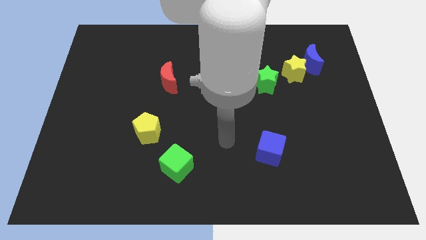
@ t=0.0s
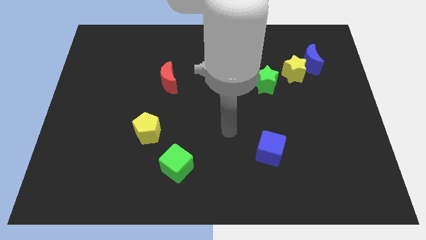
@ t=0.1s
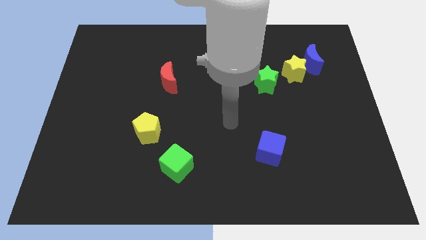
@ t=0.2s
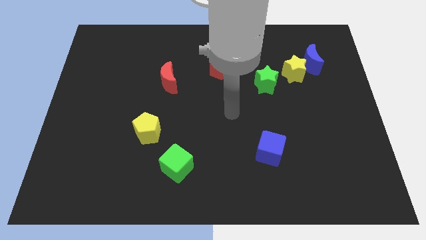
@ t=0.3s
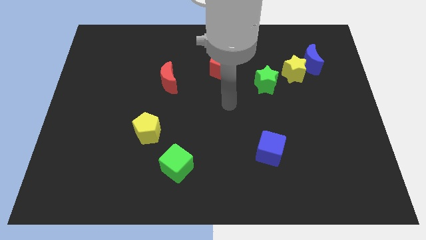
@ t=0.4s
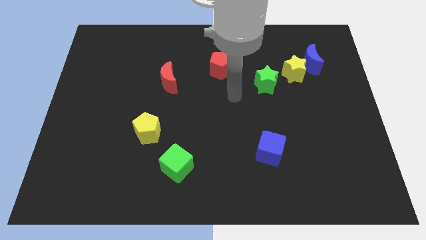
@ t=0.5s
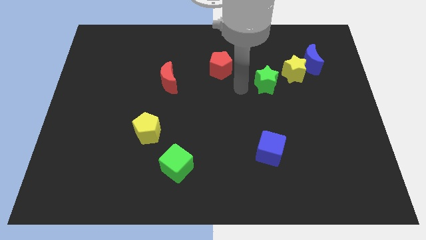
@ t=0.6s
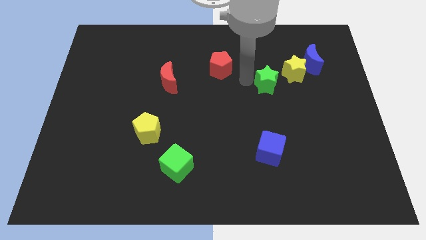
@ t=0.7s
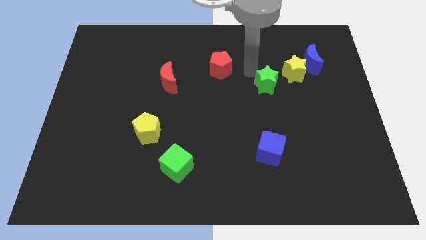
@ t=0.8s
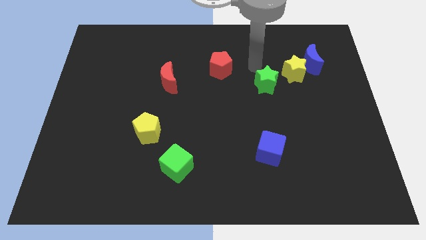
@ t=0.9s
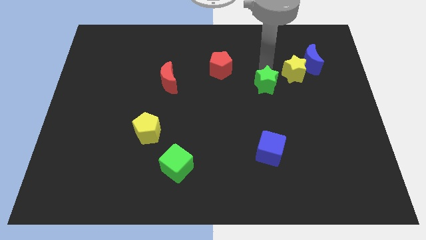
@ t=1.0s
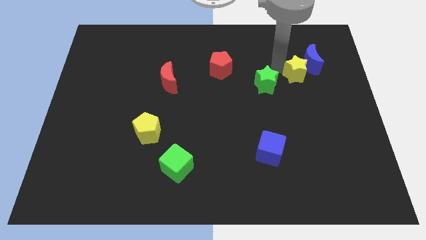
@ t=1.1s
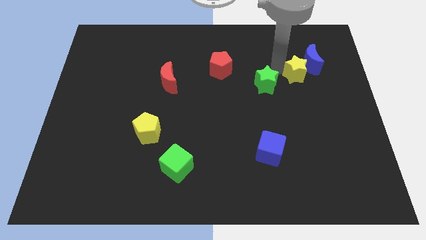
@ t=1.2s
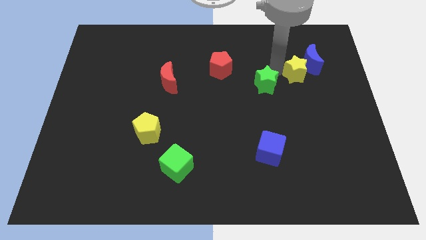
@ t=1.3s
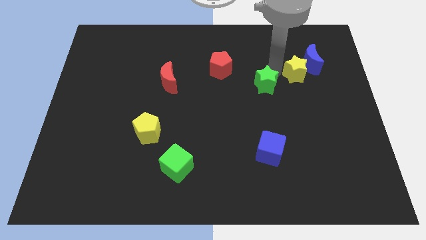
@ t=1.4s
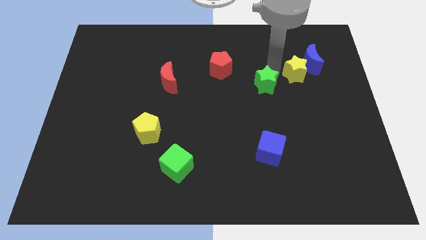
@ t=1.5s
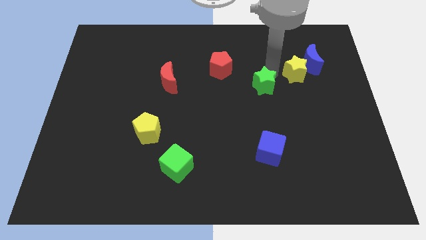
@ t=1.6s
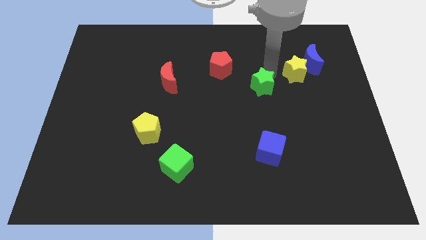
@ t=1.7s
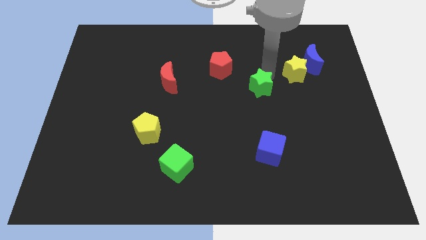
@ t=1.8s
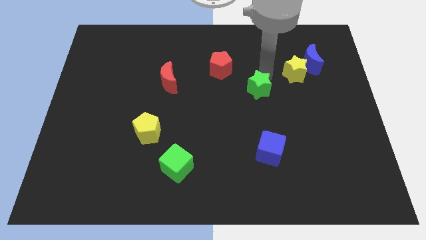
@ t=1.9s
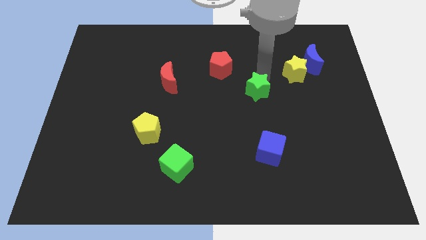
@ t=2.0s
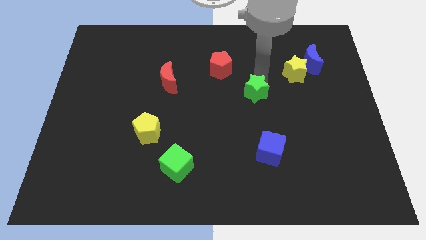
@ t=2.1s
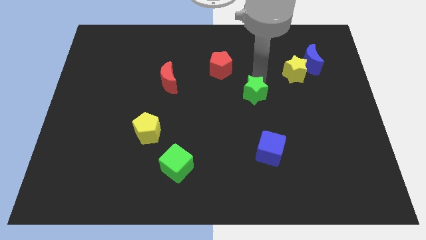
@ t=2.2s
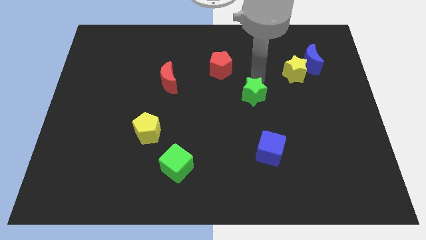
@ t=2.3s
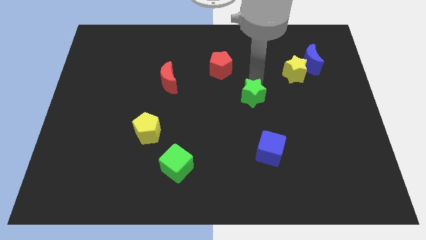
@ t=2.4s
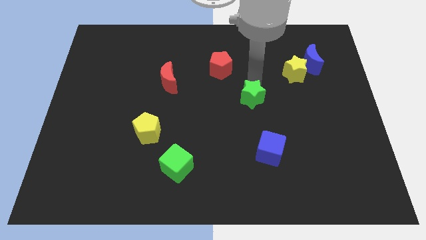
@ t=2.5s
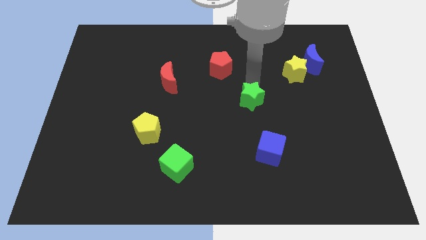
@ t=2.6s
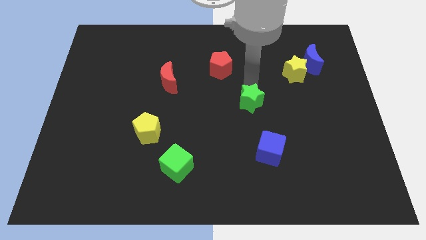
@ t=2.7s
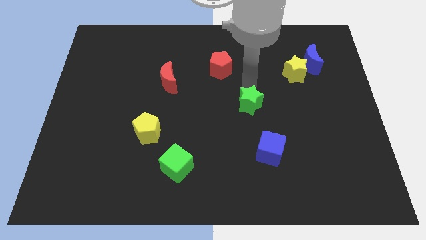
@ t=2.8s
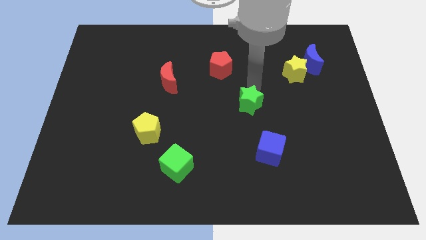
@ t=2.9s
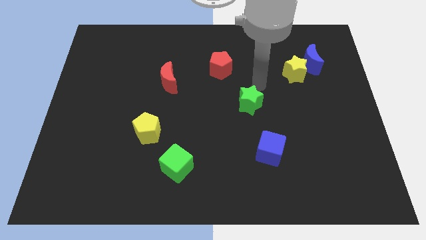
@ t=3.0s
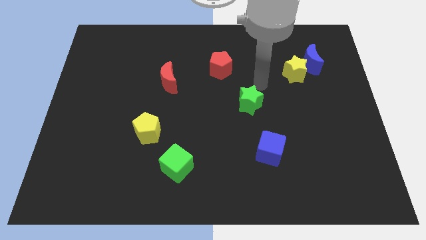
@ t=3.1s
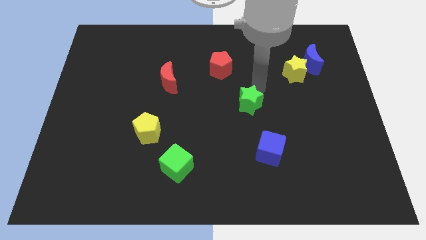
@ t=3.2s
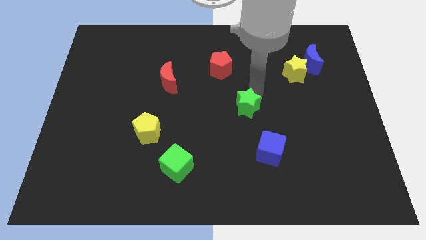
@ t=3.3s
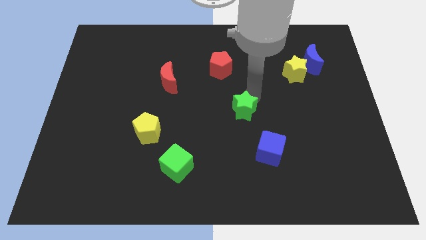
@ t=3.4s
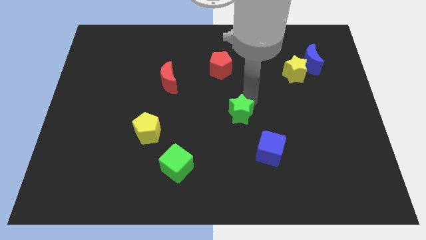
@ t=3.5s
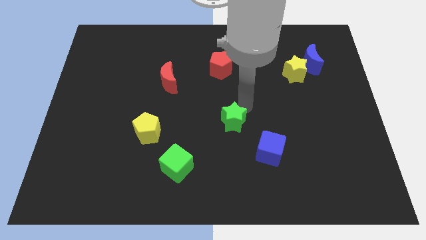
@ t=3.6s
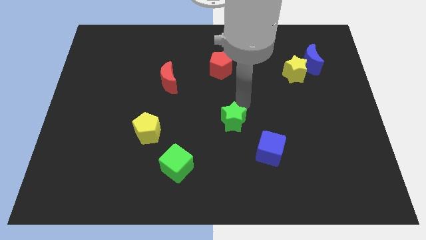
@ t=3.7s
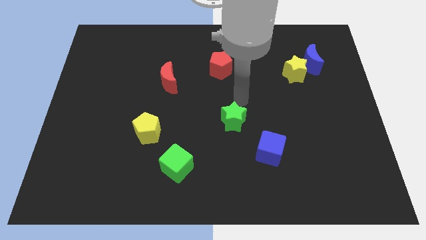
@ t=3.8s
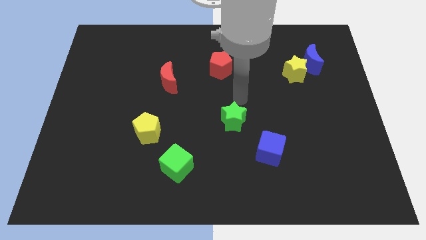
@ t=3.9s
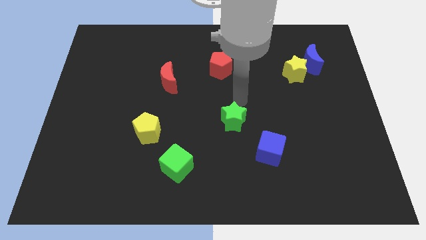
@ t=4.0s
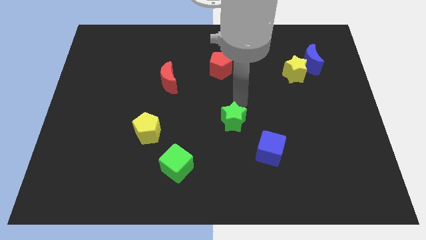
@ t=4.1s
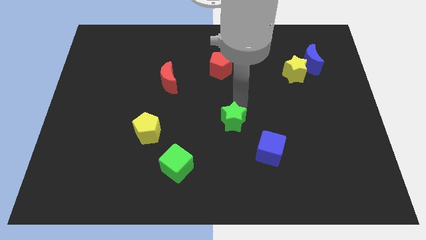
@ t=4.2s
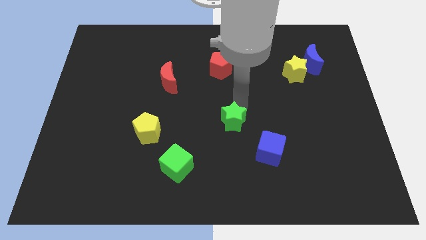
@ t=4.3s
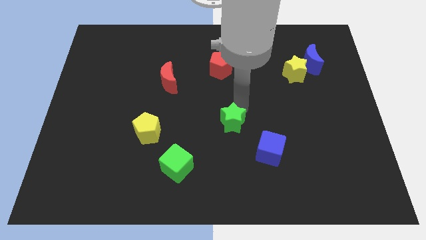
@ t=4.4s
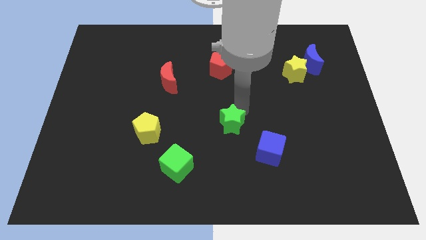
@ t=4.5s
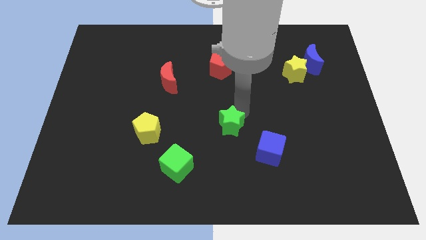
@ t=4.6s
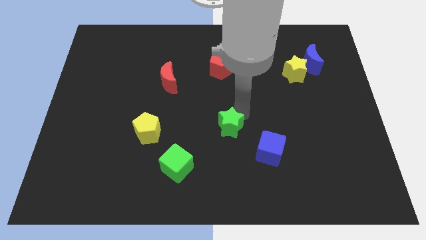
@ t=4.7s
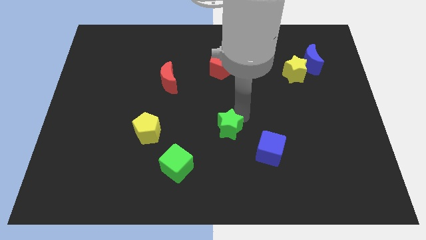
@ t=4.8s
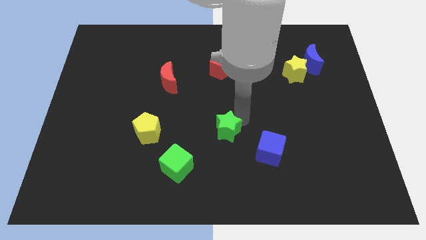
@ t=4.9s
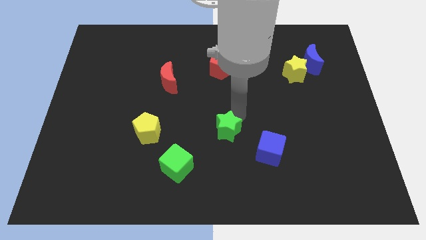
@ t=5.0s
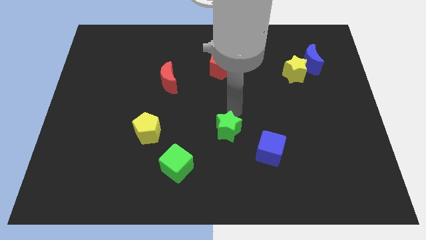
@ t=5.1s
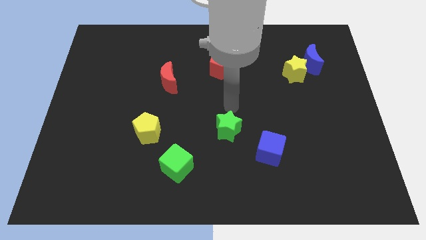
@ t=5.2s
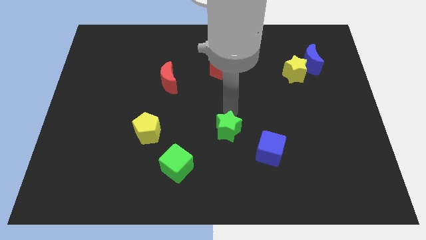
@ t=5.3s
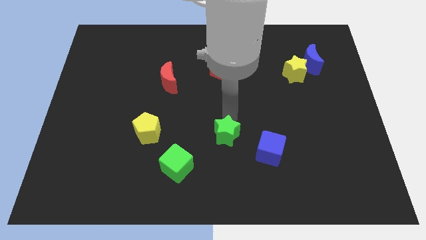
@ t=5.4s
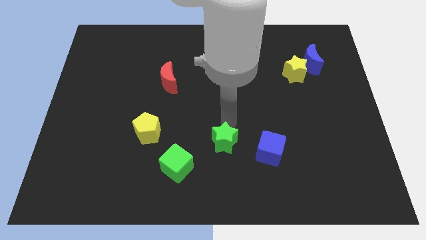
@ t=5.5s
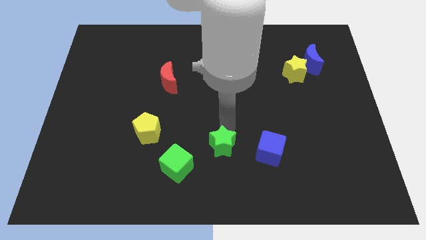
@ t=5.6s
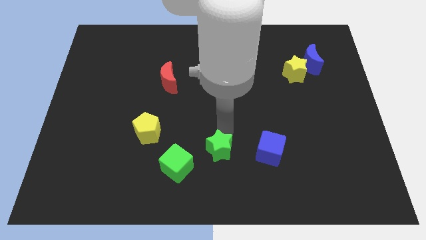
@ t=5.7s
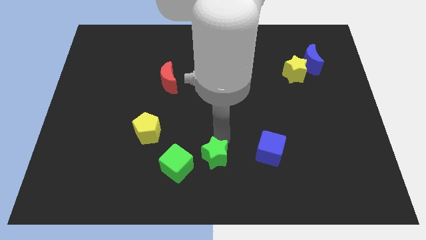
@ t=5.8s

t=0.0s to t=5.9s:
slide the green star to the bottom

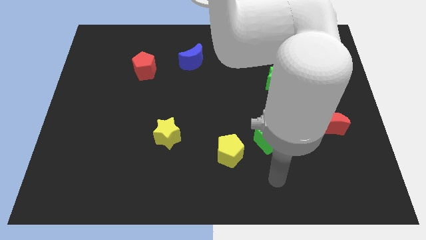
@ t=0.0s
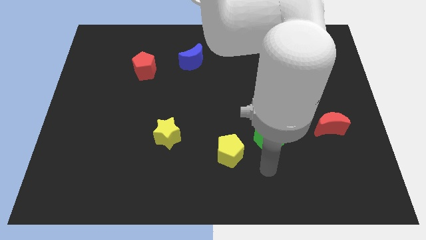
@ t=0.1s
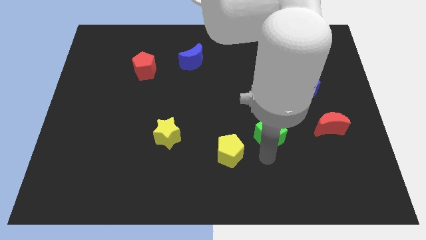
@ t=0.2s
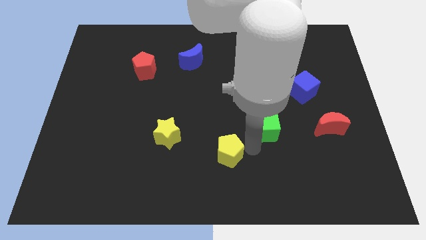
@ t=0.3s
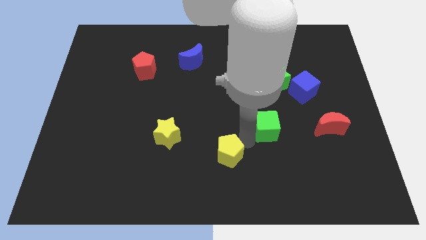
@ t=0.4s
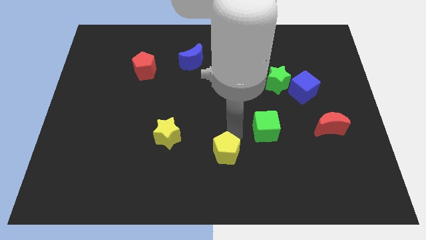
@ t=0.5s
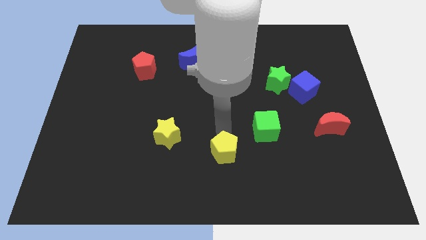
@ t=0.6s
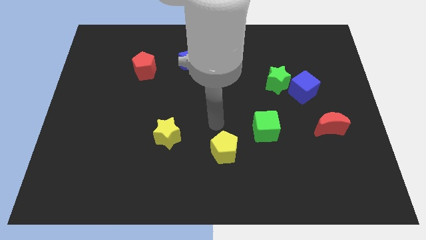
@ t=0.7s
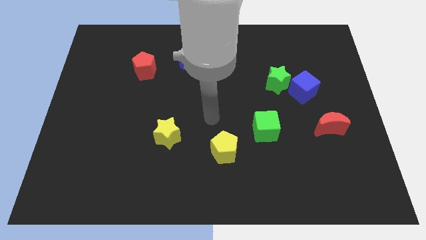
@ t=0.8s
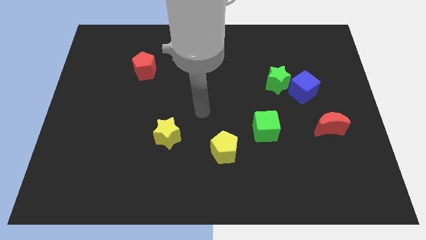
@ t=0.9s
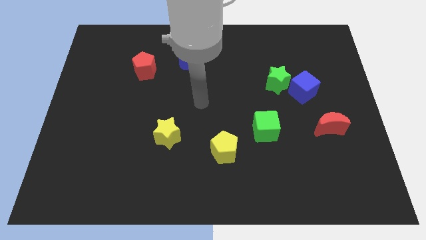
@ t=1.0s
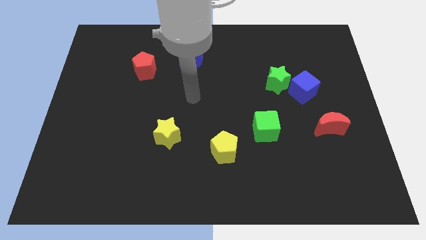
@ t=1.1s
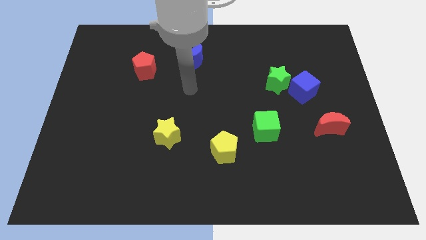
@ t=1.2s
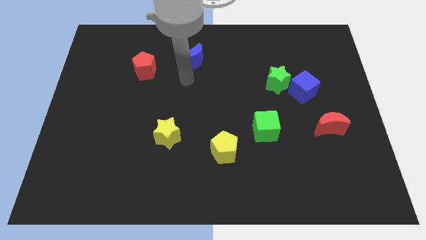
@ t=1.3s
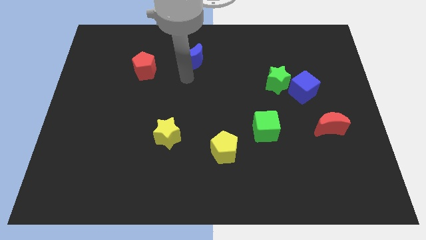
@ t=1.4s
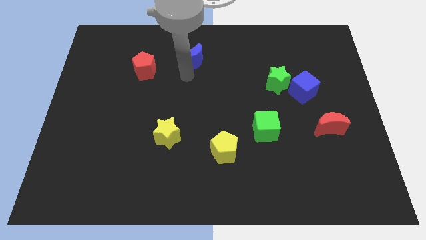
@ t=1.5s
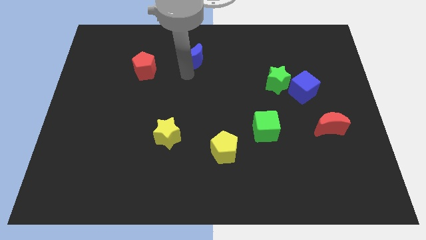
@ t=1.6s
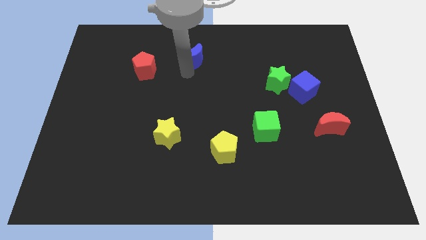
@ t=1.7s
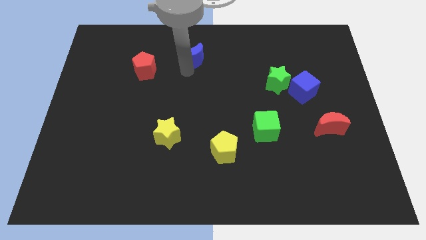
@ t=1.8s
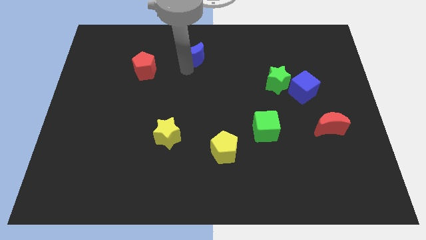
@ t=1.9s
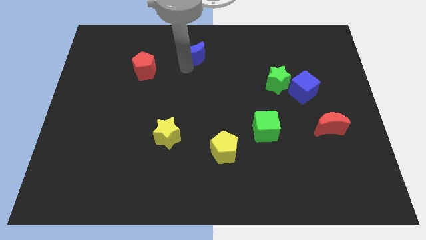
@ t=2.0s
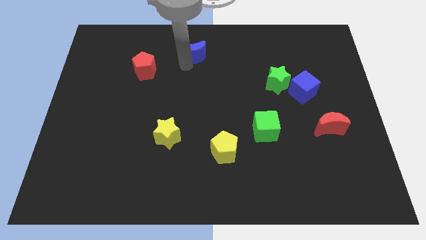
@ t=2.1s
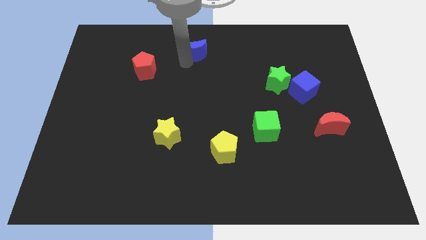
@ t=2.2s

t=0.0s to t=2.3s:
move the blue moon to the towards your base
